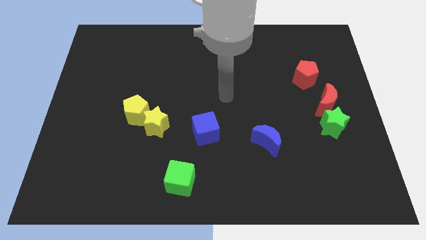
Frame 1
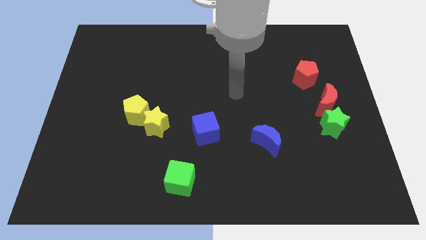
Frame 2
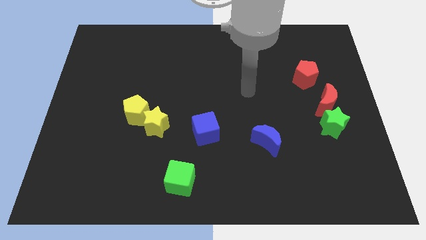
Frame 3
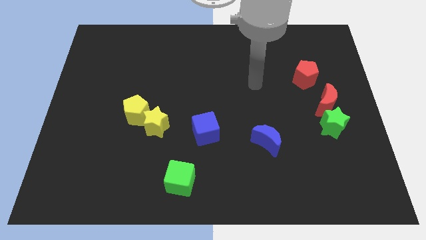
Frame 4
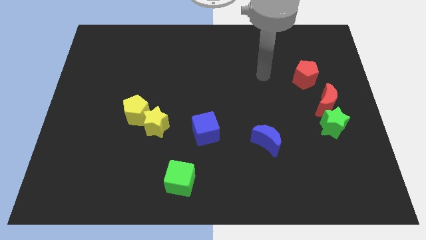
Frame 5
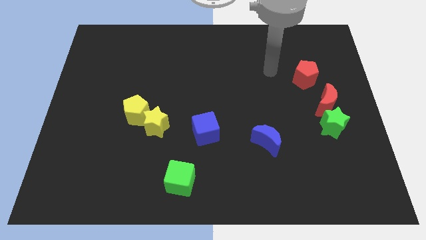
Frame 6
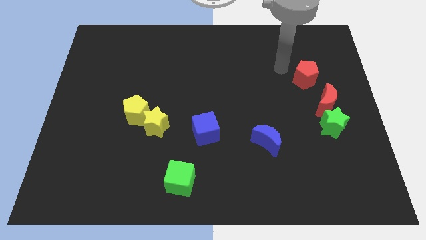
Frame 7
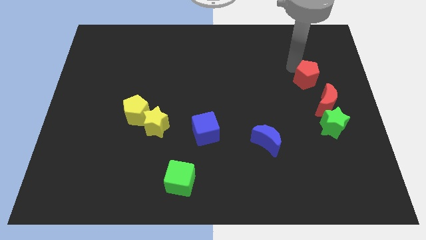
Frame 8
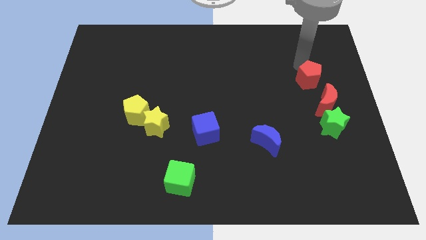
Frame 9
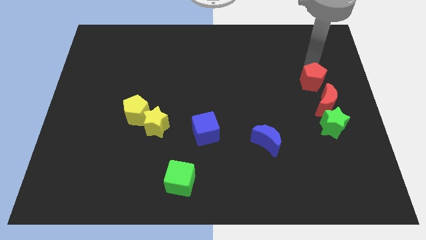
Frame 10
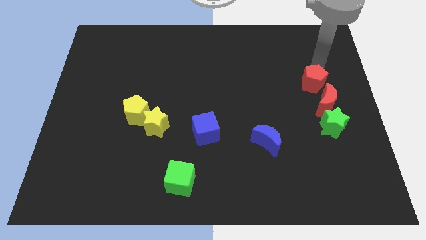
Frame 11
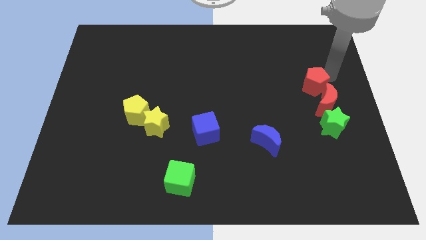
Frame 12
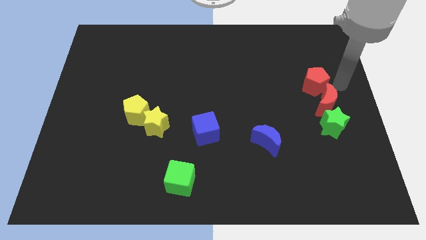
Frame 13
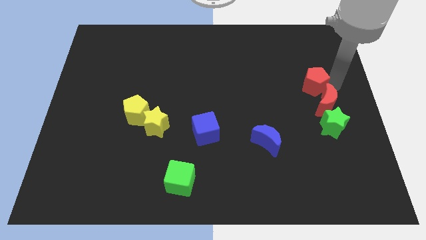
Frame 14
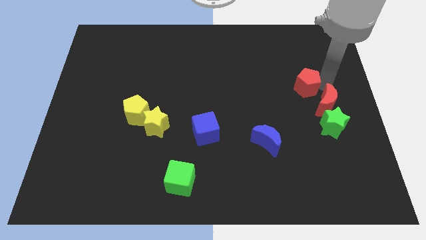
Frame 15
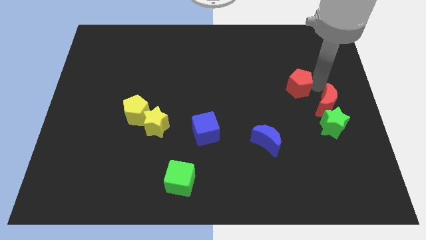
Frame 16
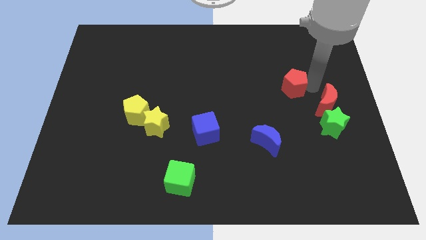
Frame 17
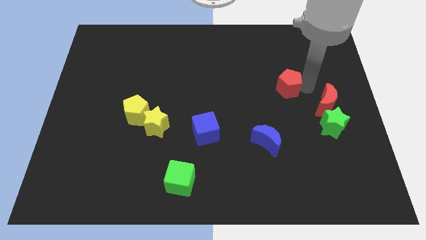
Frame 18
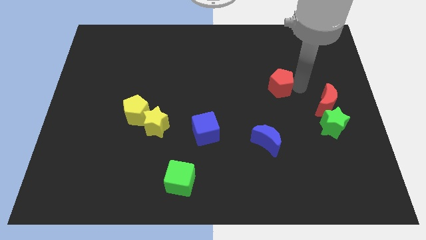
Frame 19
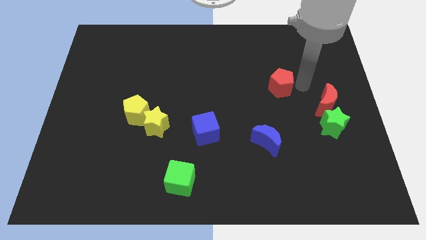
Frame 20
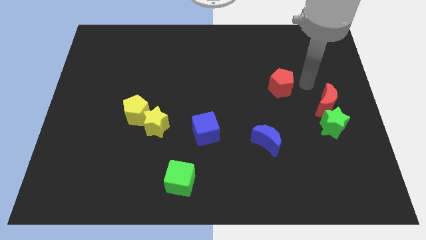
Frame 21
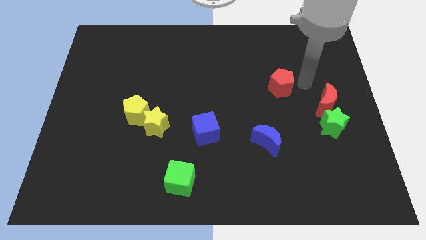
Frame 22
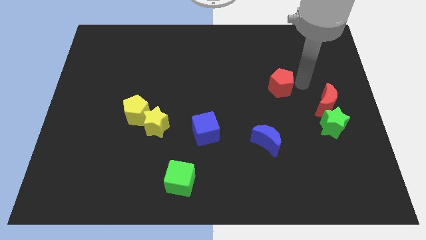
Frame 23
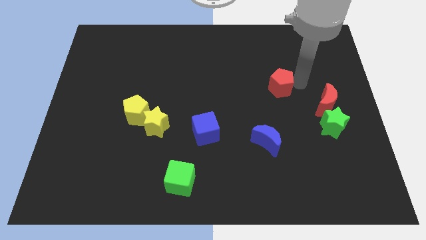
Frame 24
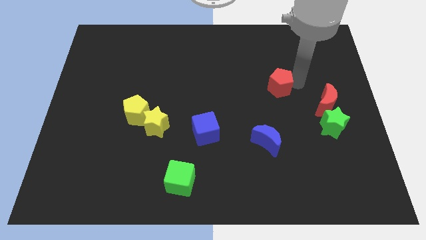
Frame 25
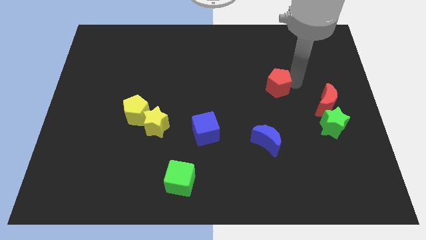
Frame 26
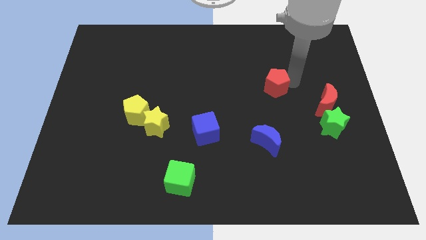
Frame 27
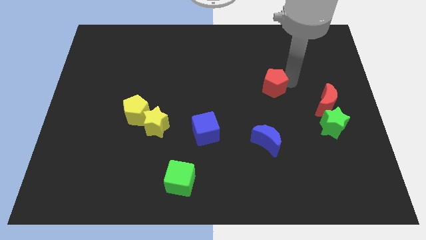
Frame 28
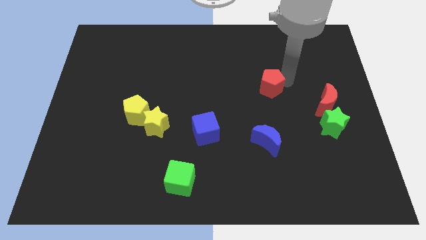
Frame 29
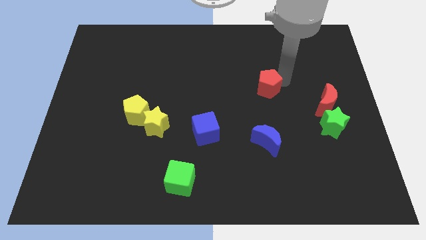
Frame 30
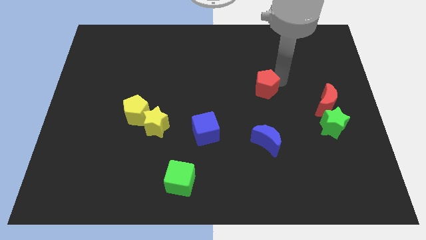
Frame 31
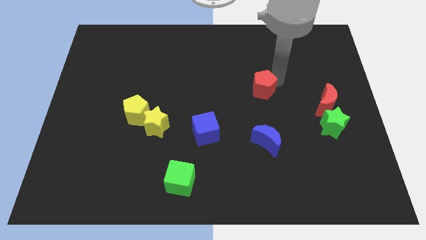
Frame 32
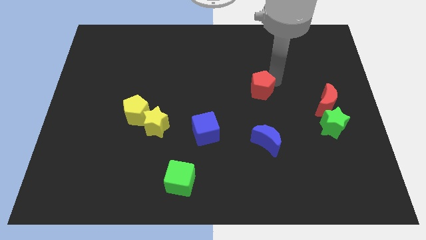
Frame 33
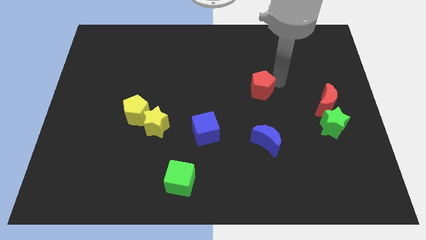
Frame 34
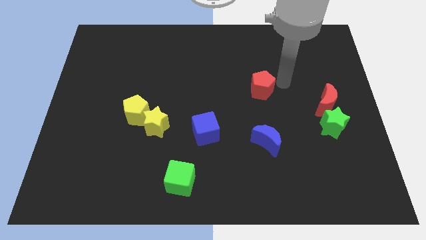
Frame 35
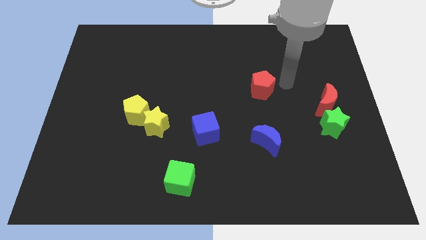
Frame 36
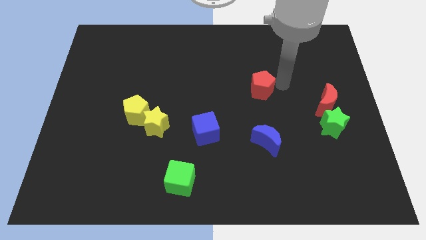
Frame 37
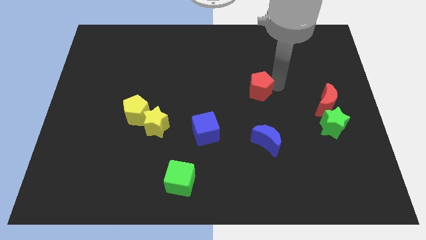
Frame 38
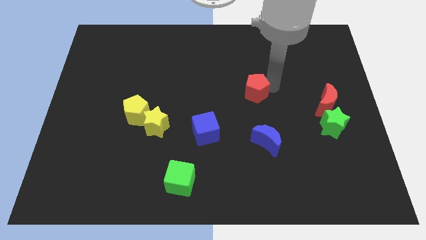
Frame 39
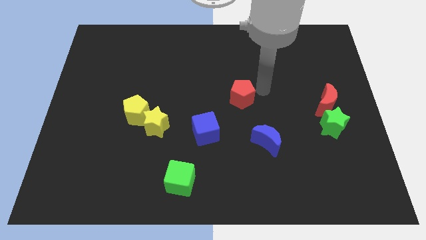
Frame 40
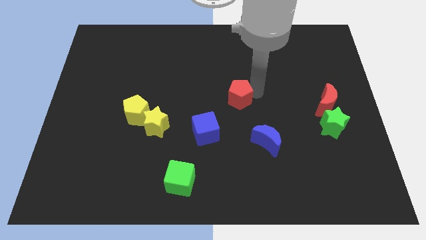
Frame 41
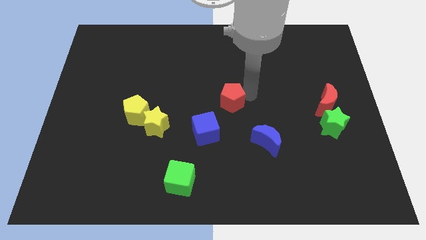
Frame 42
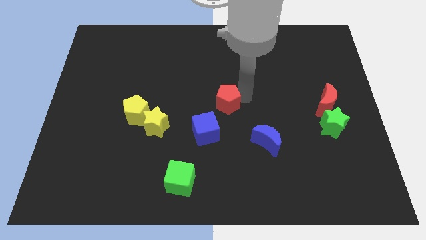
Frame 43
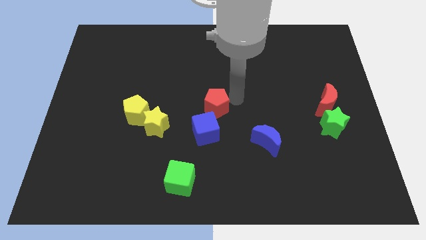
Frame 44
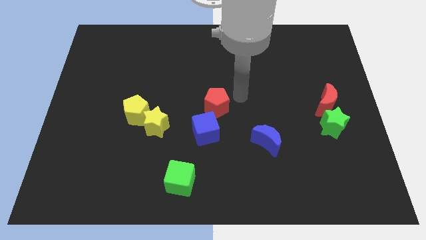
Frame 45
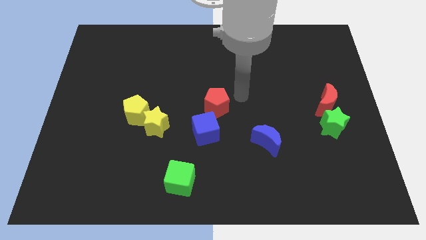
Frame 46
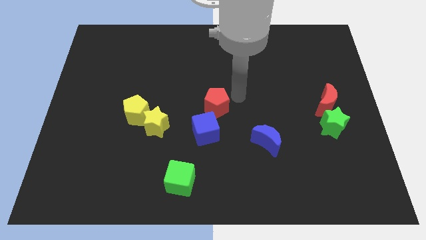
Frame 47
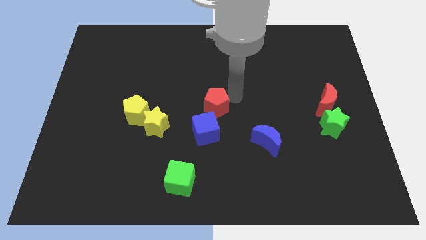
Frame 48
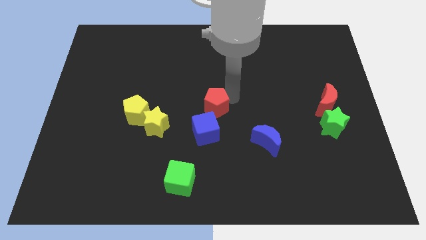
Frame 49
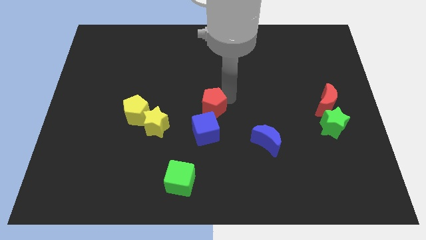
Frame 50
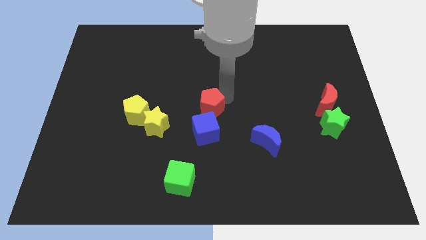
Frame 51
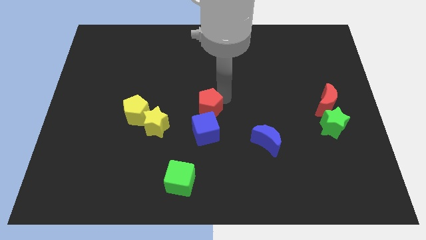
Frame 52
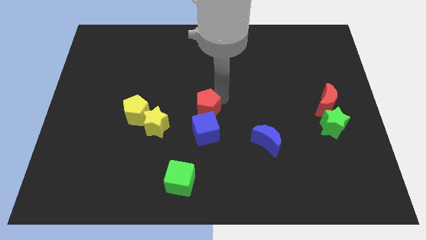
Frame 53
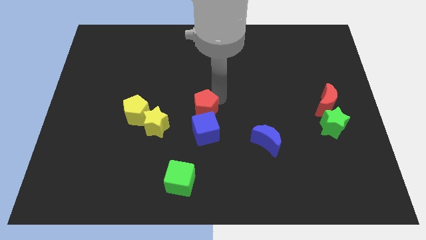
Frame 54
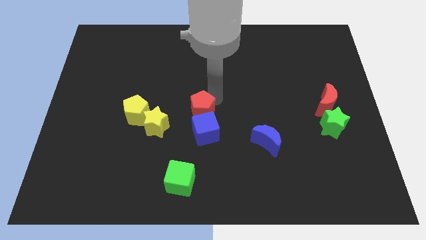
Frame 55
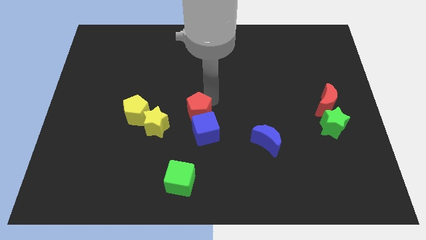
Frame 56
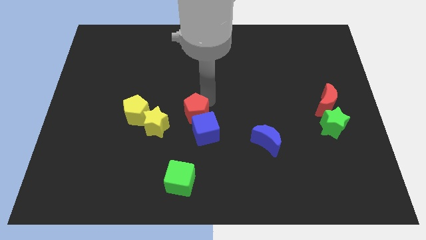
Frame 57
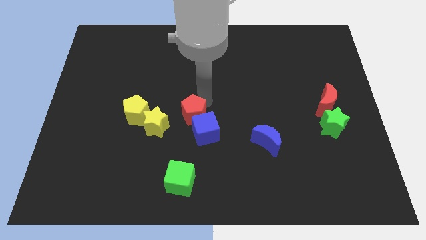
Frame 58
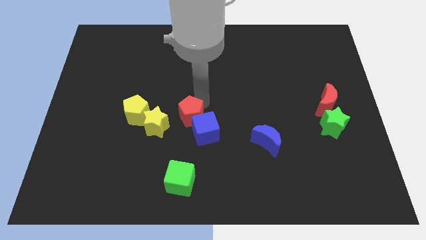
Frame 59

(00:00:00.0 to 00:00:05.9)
push the red pentagon to the left side of the blue cube

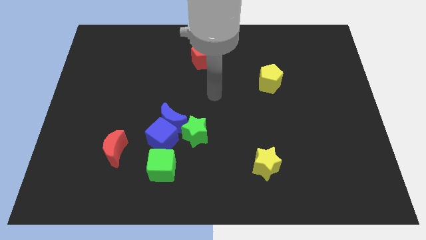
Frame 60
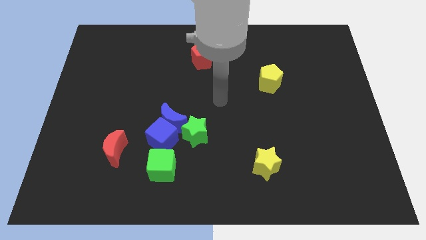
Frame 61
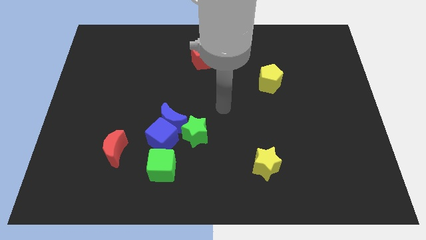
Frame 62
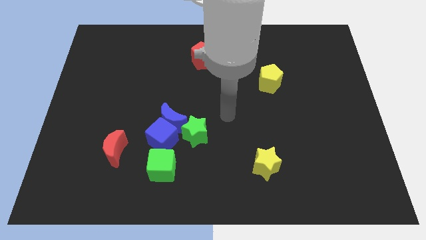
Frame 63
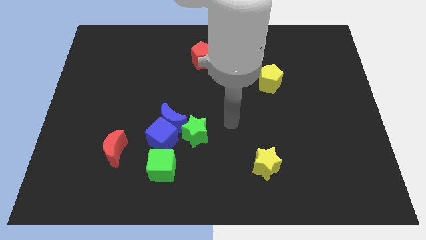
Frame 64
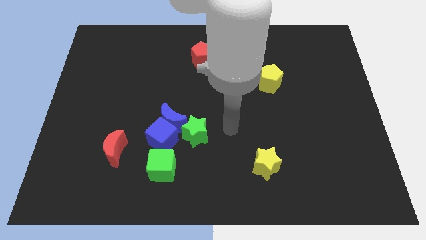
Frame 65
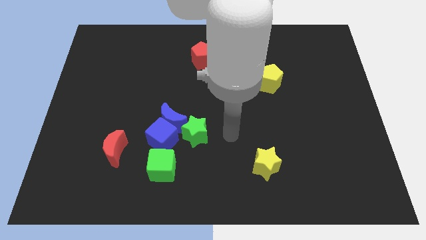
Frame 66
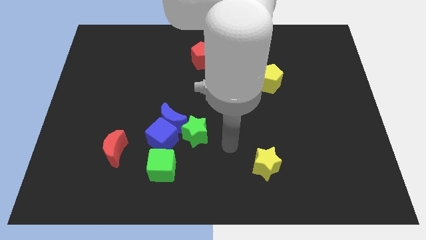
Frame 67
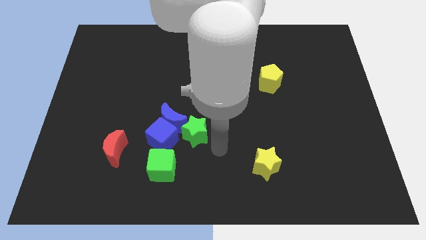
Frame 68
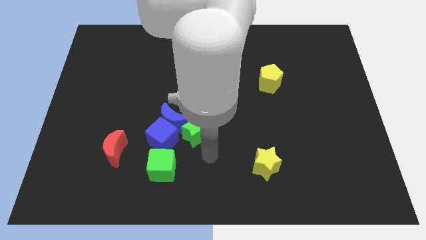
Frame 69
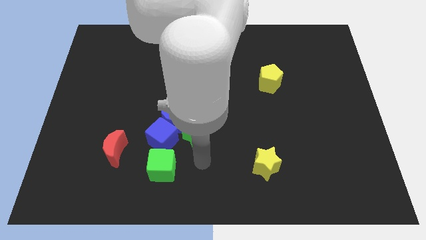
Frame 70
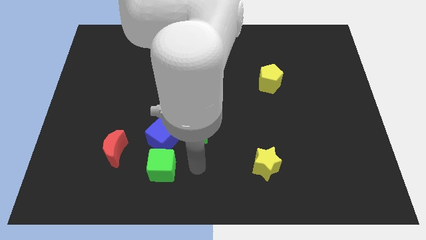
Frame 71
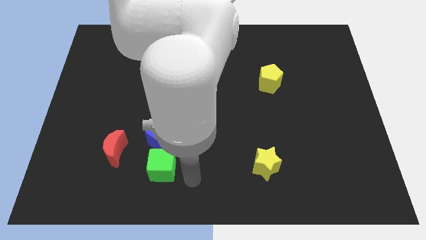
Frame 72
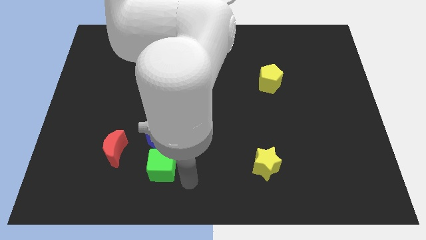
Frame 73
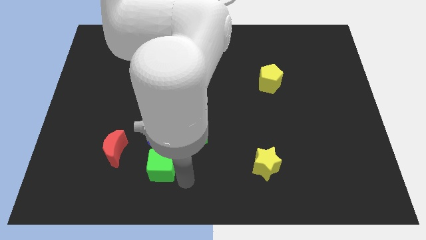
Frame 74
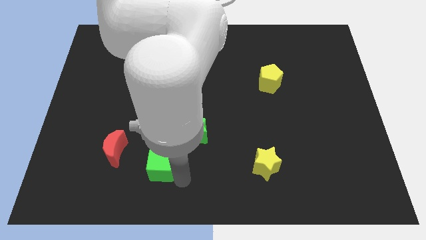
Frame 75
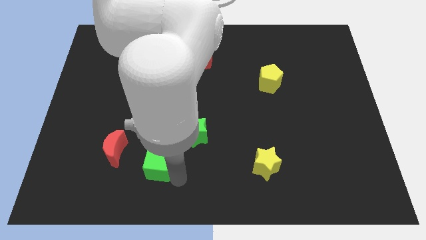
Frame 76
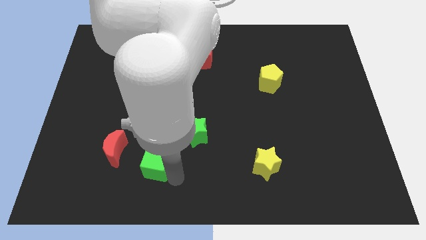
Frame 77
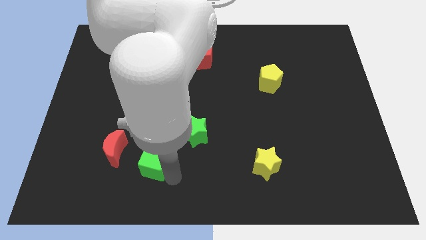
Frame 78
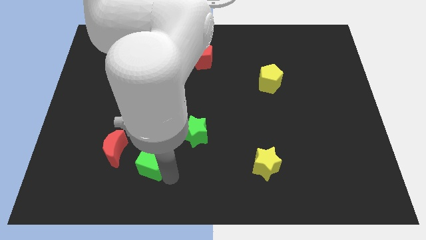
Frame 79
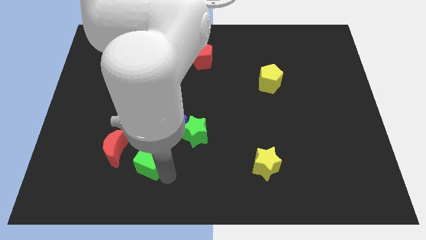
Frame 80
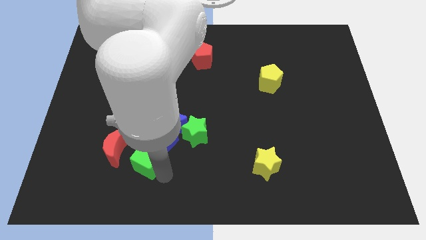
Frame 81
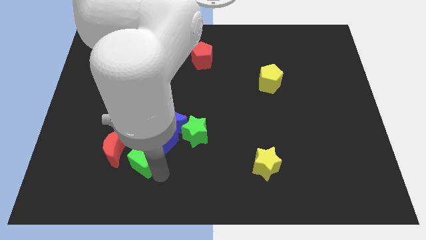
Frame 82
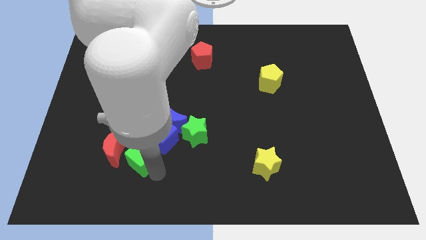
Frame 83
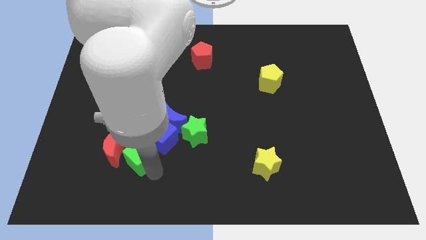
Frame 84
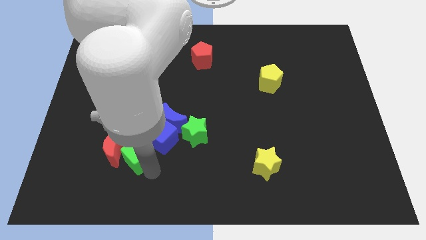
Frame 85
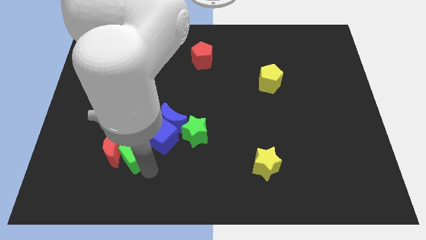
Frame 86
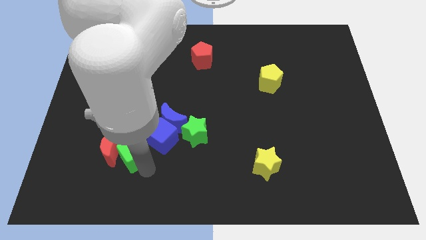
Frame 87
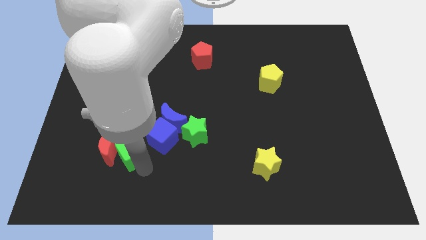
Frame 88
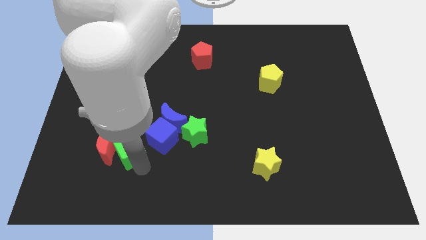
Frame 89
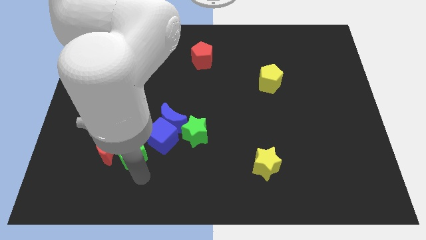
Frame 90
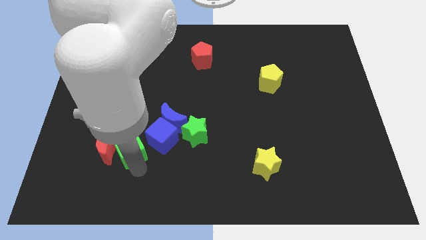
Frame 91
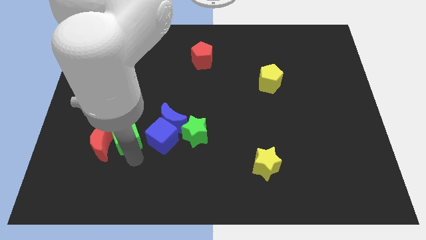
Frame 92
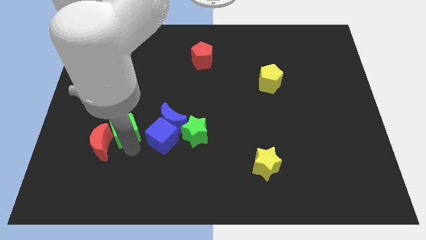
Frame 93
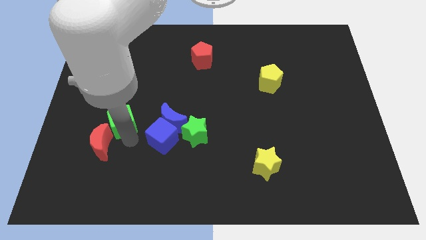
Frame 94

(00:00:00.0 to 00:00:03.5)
push the green cube to the top side of the red moon
